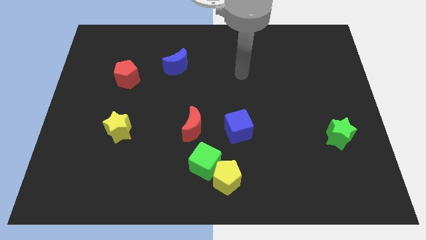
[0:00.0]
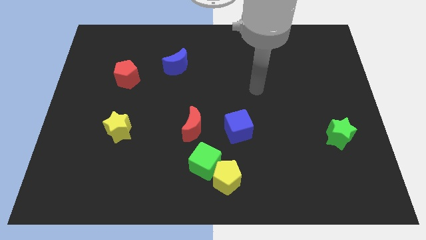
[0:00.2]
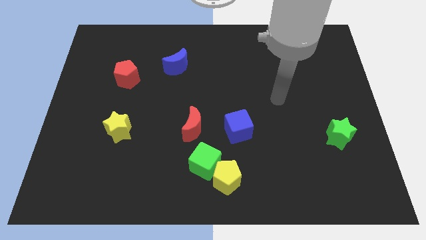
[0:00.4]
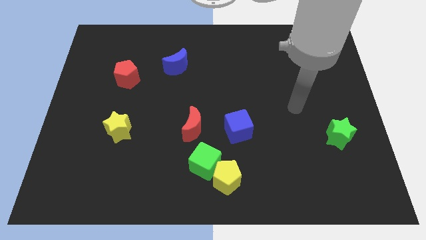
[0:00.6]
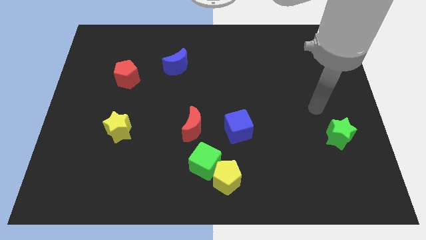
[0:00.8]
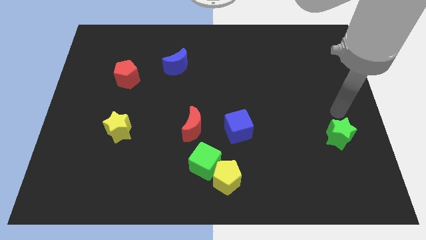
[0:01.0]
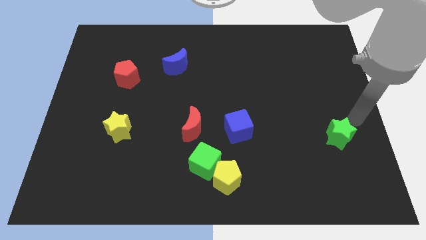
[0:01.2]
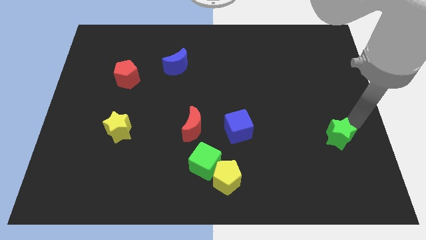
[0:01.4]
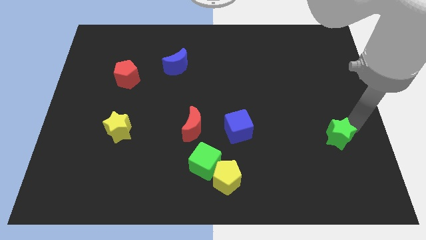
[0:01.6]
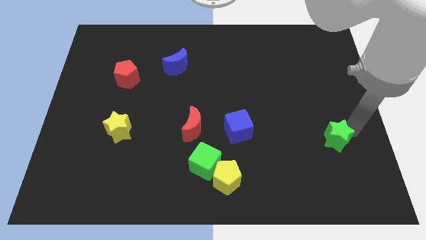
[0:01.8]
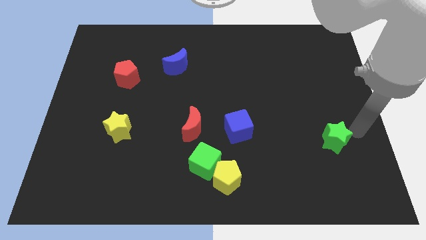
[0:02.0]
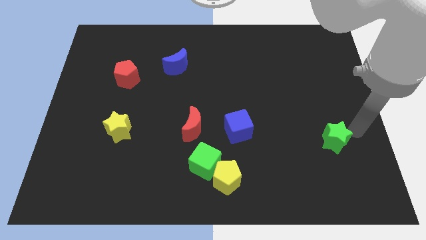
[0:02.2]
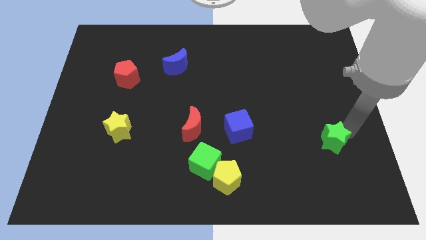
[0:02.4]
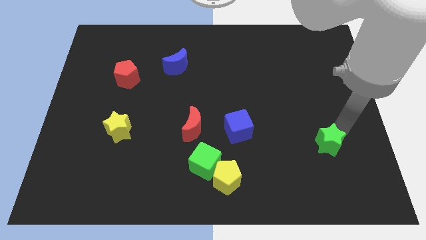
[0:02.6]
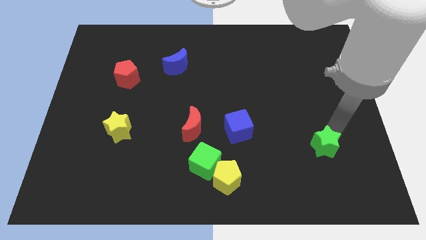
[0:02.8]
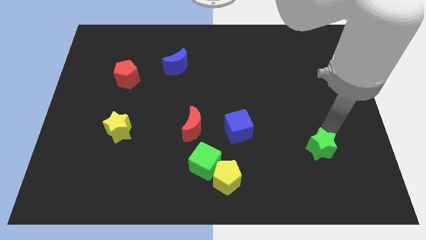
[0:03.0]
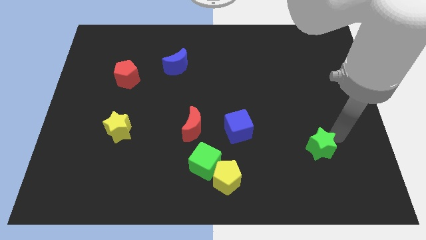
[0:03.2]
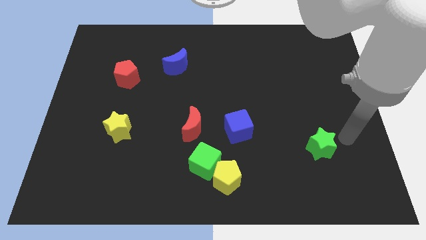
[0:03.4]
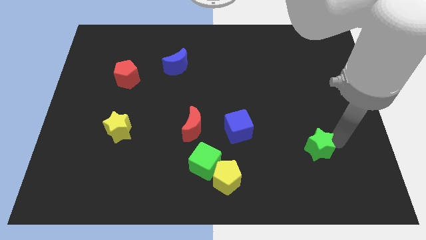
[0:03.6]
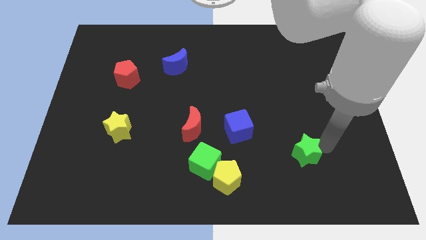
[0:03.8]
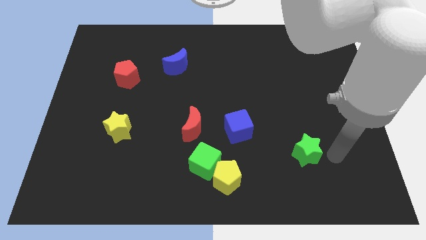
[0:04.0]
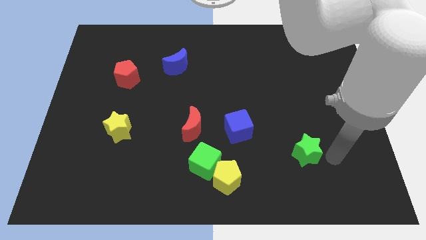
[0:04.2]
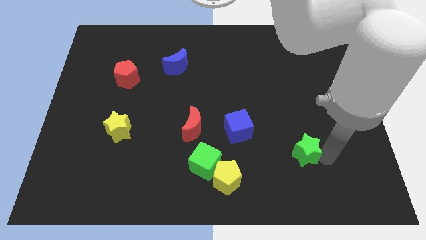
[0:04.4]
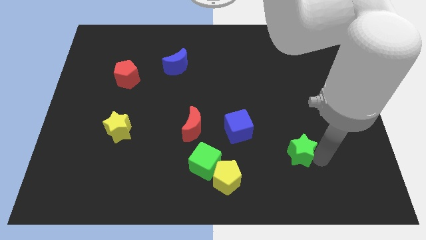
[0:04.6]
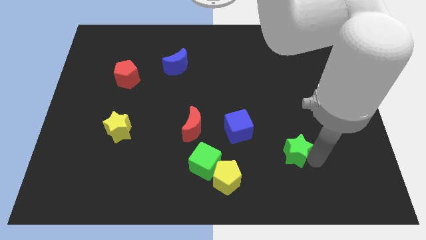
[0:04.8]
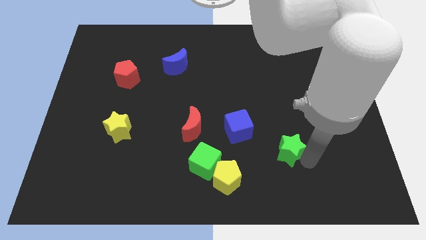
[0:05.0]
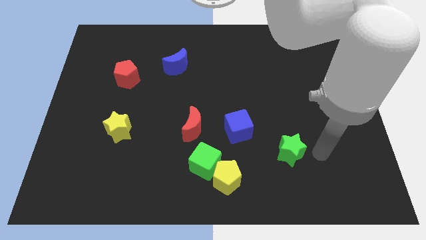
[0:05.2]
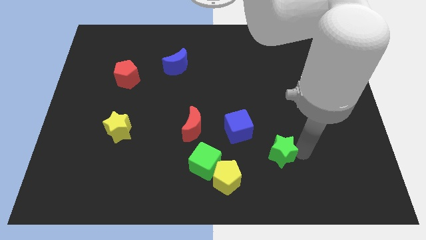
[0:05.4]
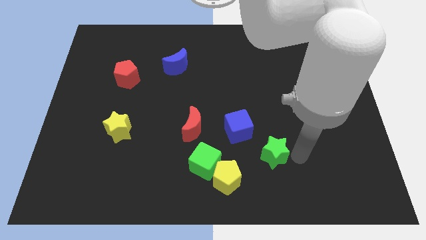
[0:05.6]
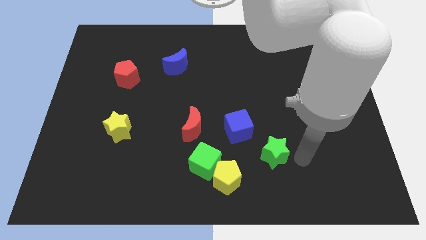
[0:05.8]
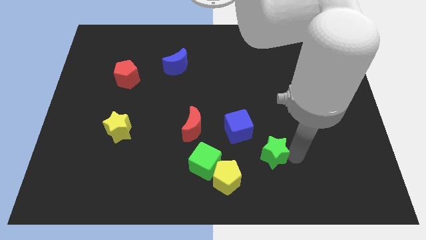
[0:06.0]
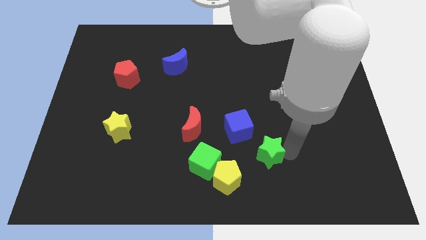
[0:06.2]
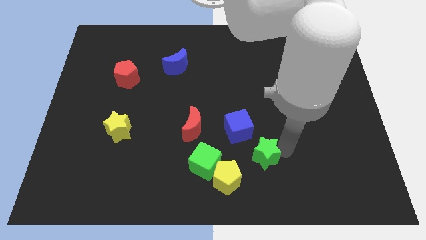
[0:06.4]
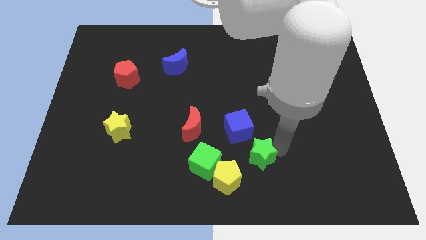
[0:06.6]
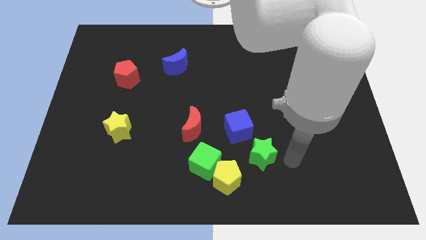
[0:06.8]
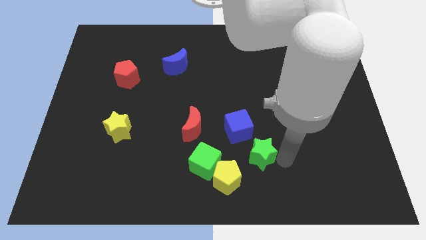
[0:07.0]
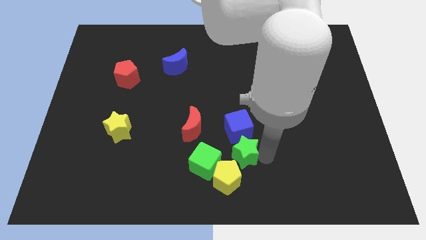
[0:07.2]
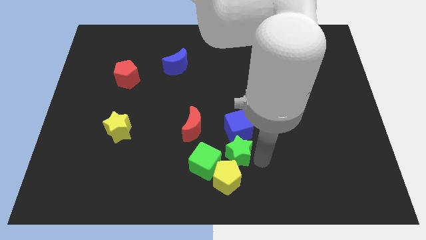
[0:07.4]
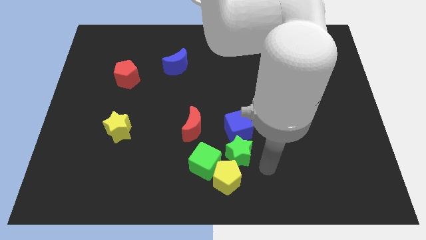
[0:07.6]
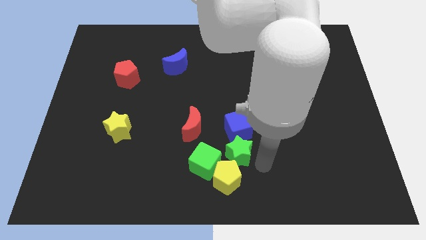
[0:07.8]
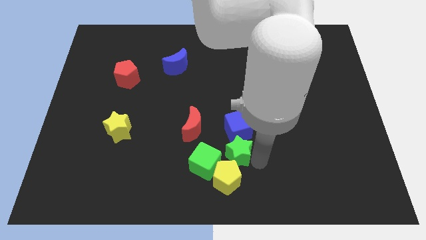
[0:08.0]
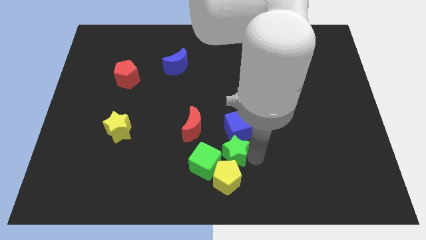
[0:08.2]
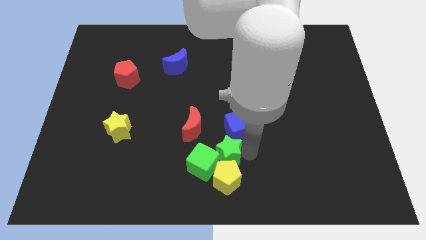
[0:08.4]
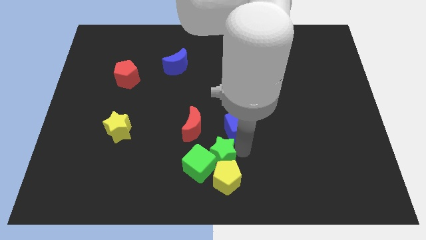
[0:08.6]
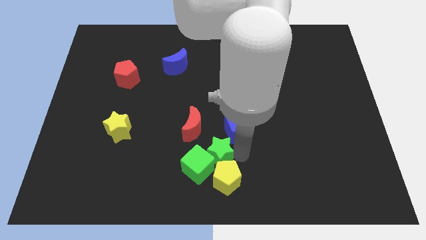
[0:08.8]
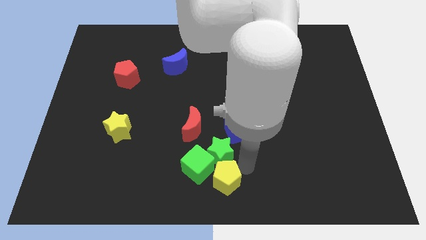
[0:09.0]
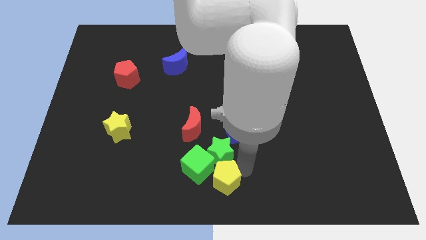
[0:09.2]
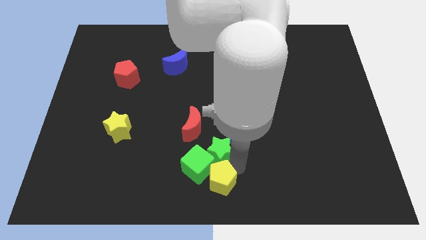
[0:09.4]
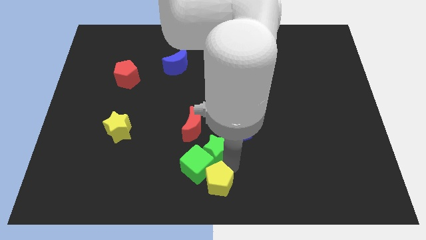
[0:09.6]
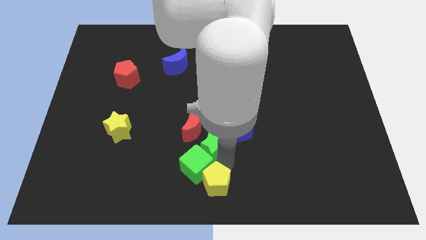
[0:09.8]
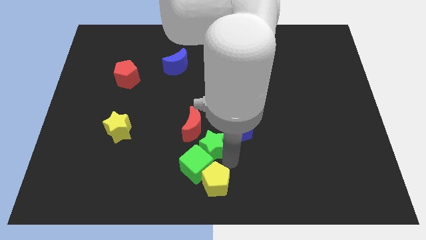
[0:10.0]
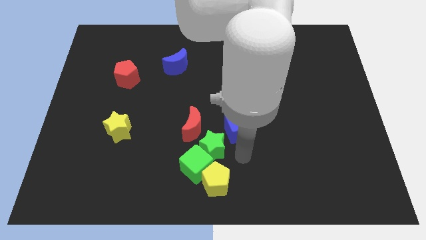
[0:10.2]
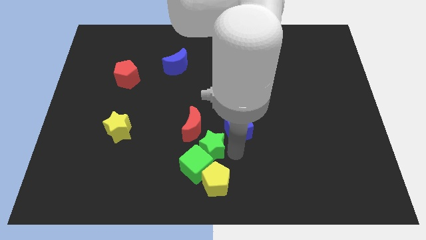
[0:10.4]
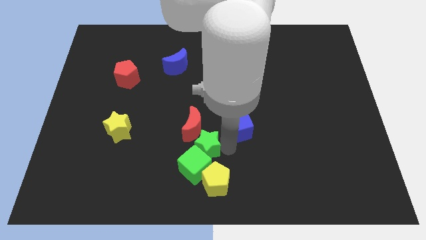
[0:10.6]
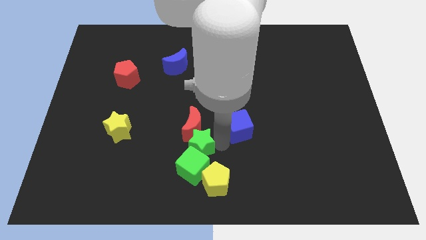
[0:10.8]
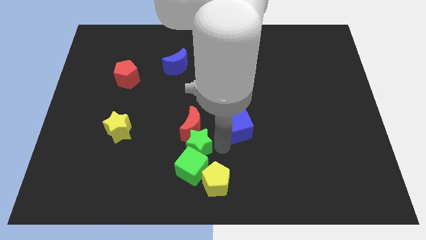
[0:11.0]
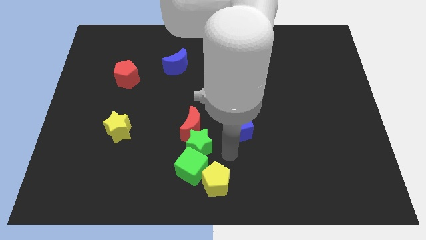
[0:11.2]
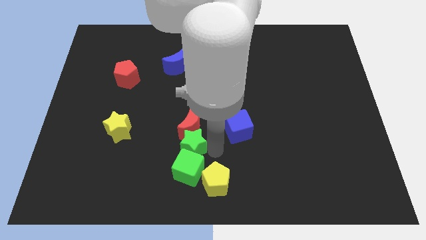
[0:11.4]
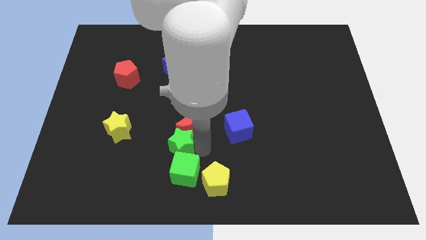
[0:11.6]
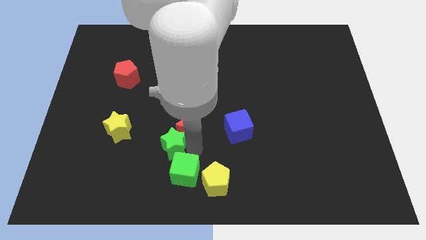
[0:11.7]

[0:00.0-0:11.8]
push the green star to the right of the yellow star

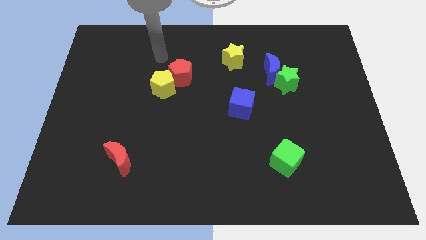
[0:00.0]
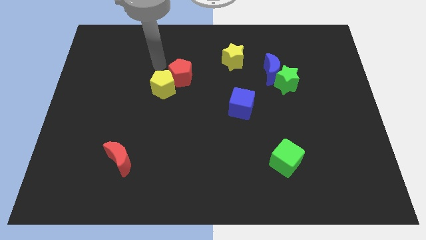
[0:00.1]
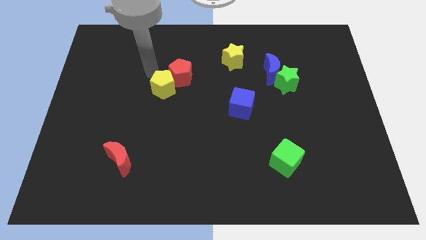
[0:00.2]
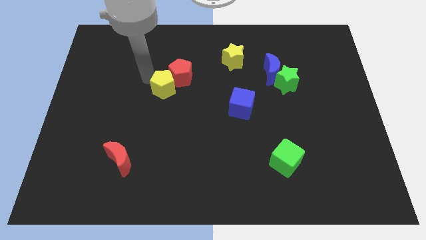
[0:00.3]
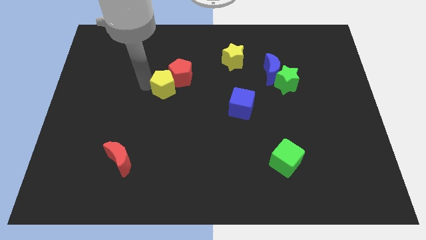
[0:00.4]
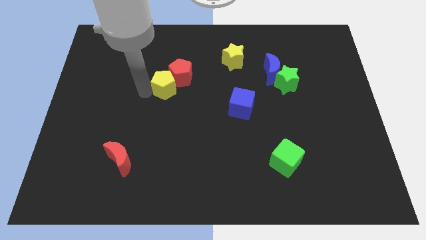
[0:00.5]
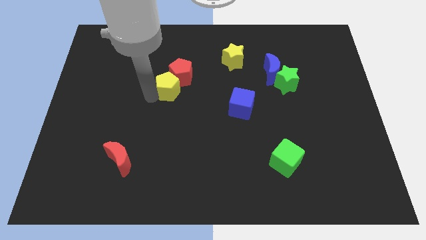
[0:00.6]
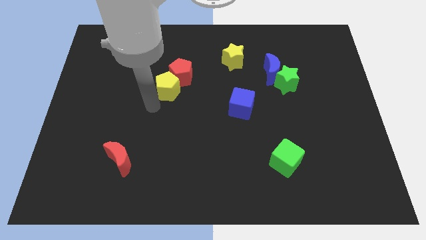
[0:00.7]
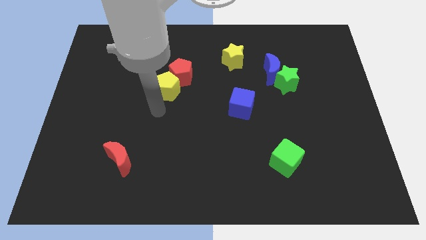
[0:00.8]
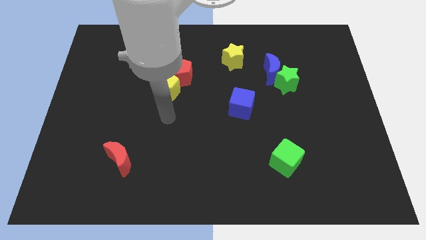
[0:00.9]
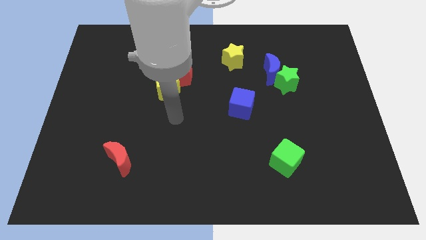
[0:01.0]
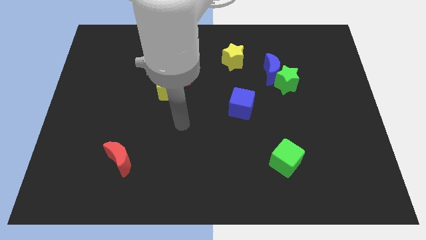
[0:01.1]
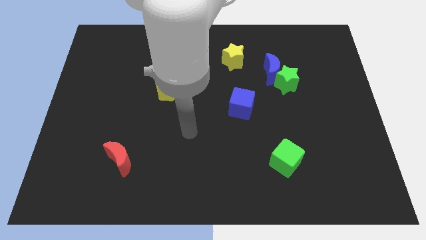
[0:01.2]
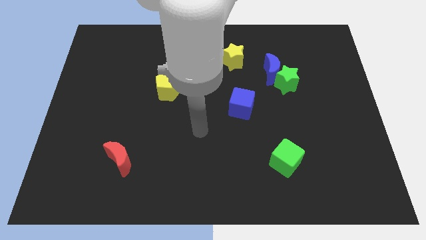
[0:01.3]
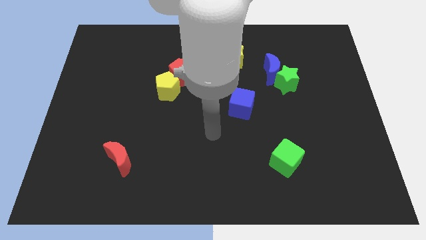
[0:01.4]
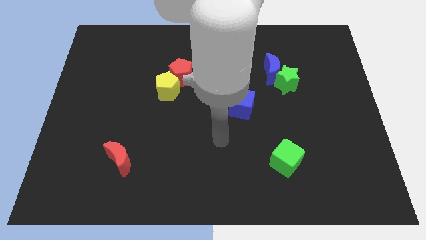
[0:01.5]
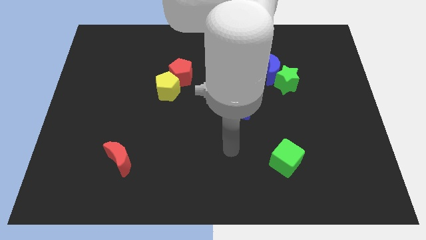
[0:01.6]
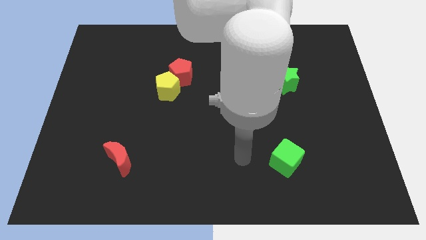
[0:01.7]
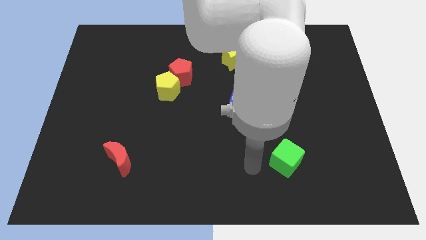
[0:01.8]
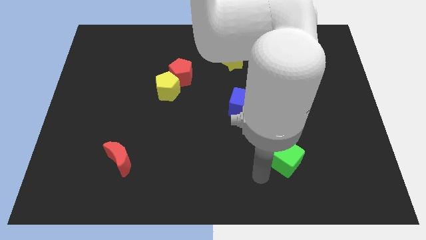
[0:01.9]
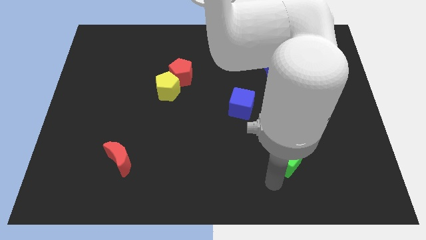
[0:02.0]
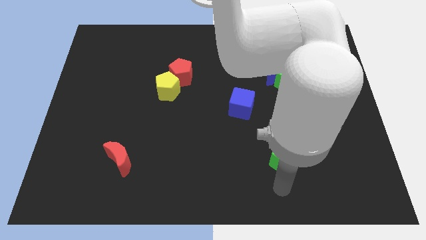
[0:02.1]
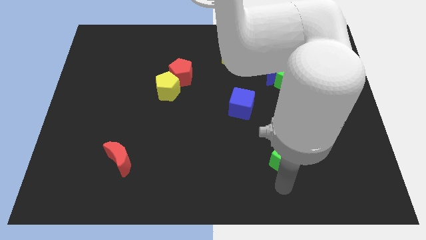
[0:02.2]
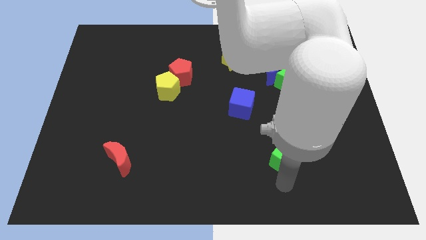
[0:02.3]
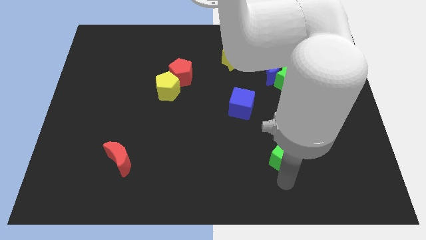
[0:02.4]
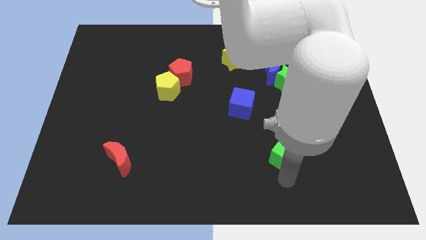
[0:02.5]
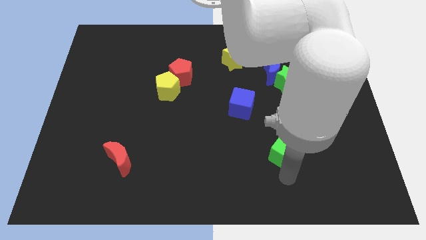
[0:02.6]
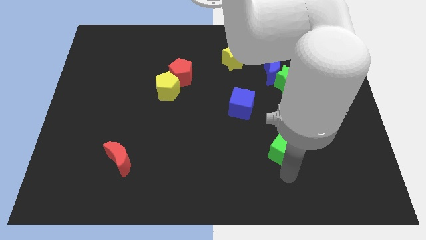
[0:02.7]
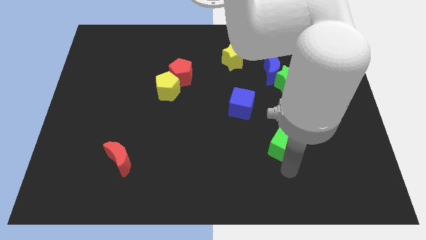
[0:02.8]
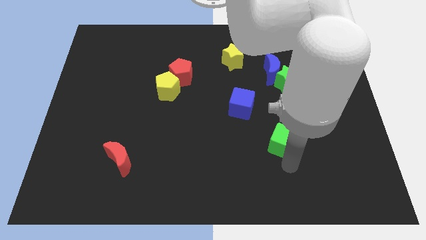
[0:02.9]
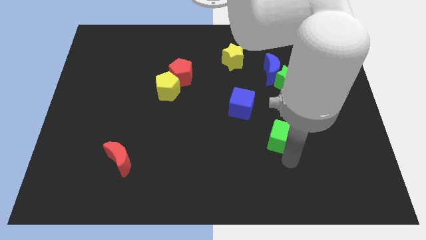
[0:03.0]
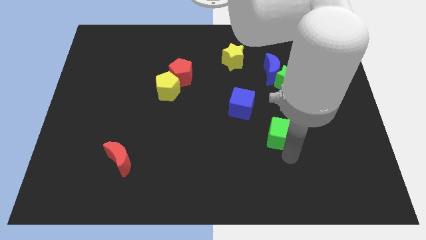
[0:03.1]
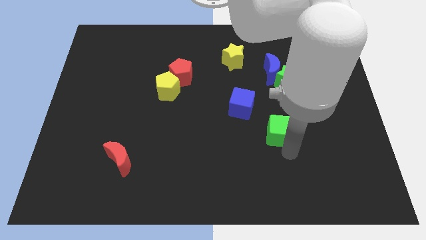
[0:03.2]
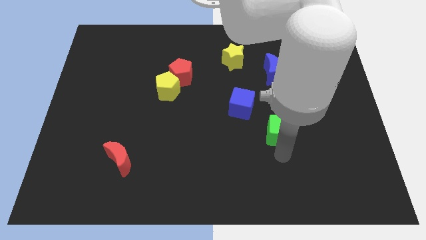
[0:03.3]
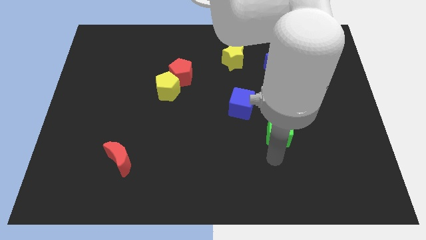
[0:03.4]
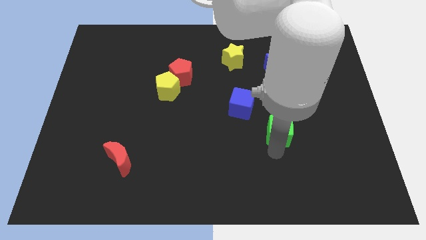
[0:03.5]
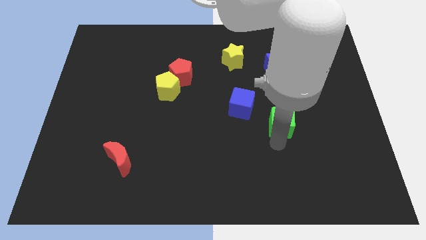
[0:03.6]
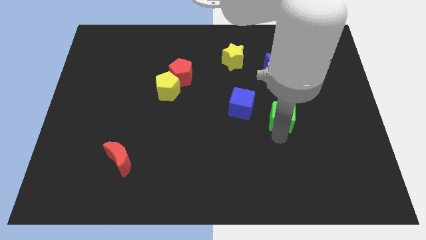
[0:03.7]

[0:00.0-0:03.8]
push the green cube to the right side of the blue cube
